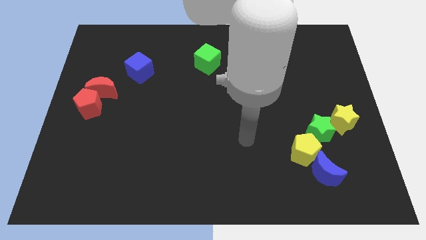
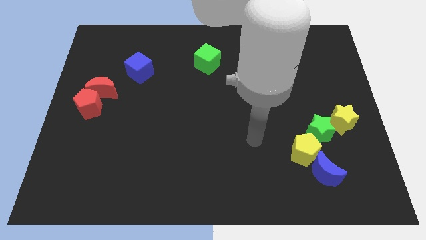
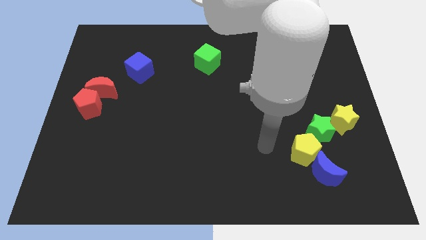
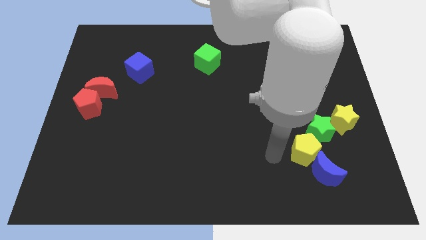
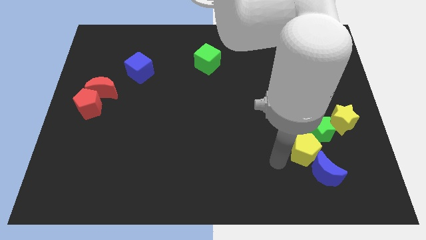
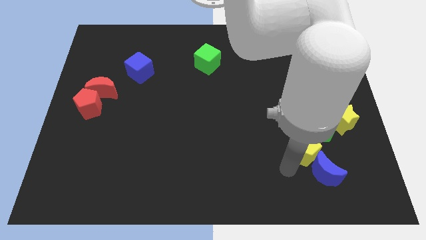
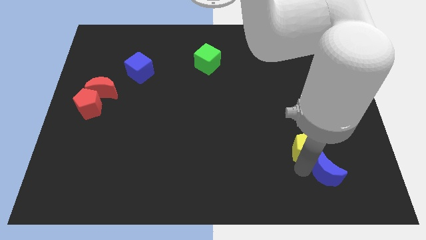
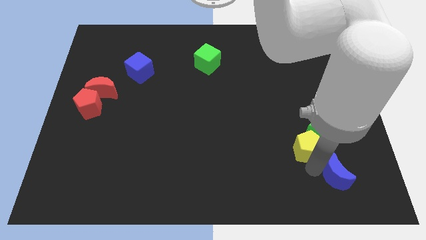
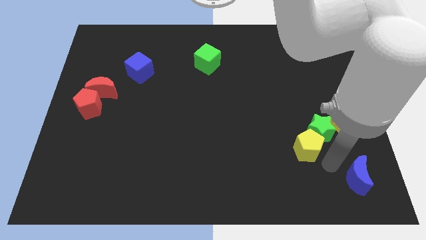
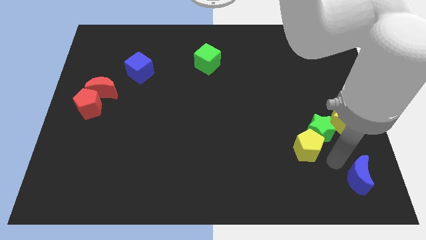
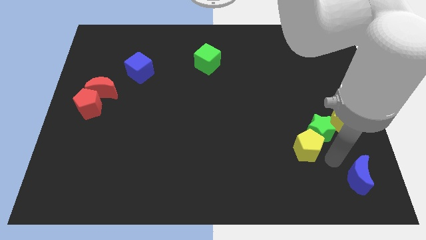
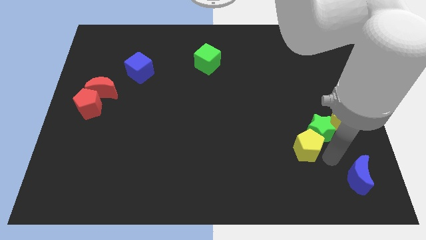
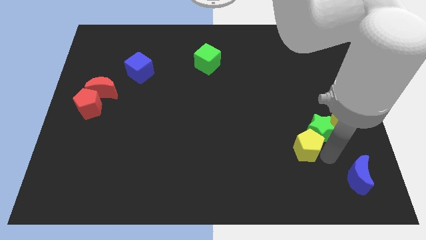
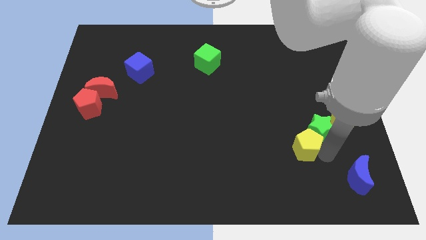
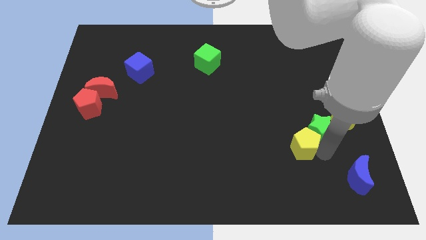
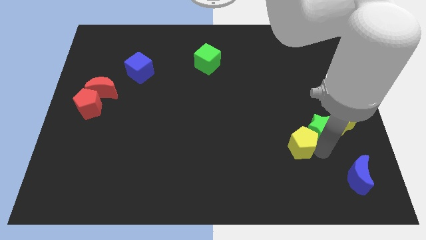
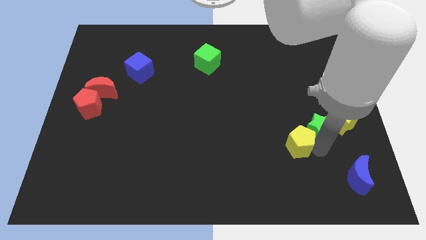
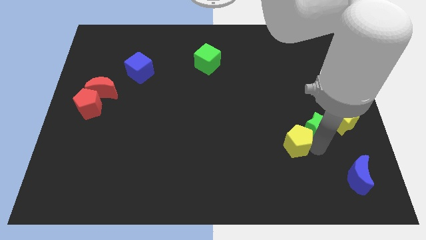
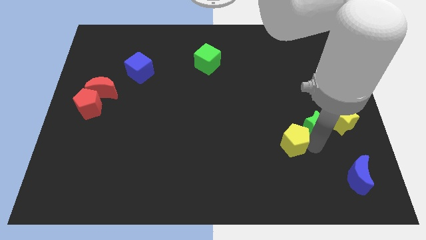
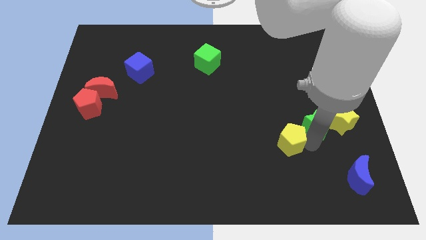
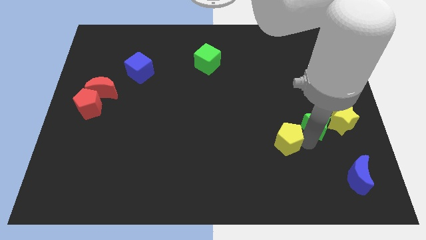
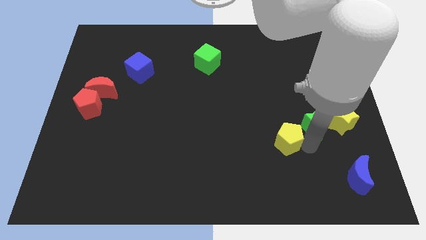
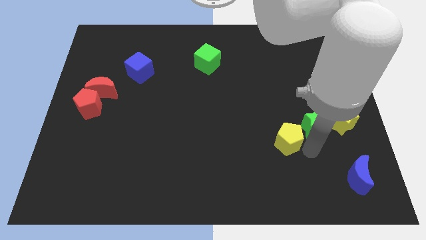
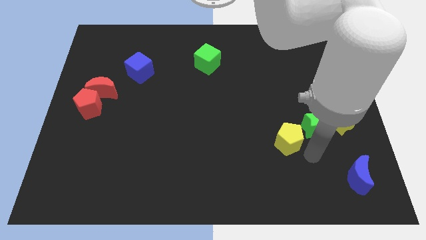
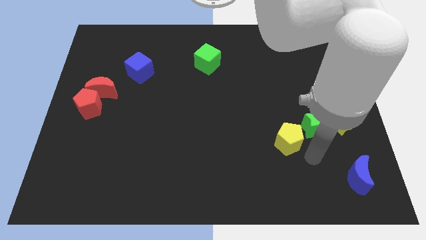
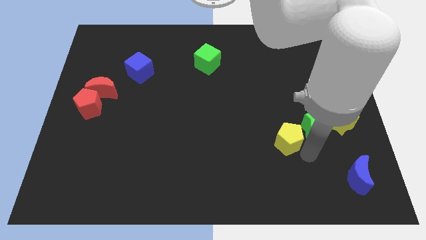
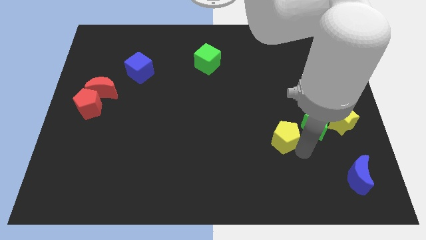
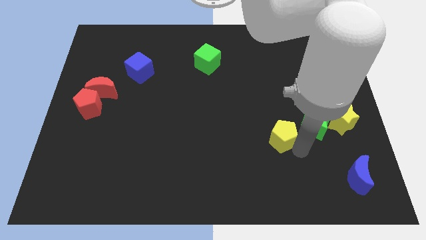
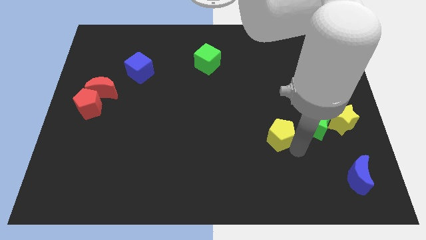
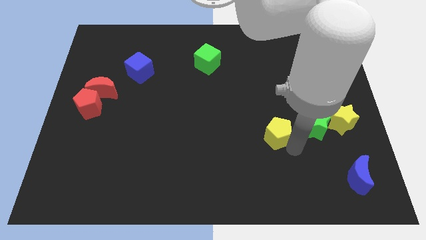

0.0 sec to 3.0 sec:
slide the yellow pentagon a little bit diagonally upwards and left

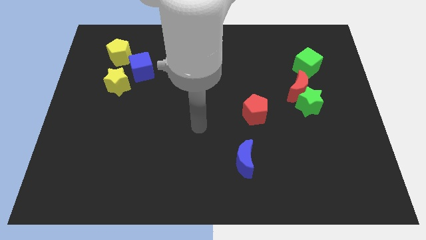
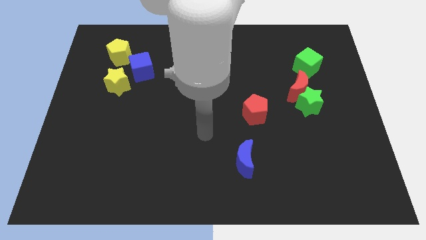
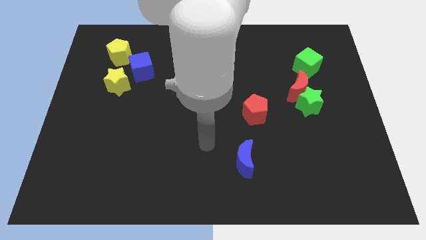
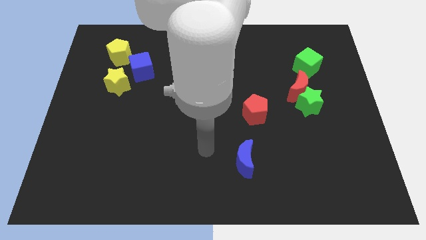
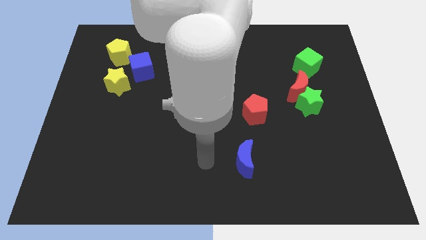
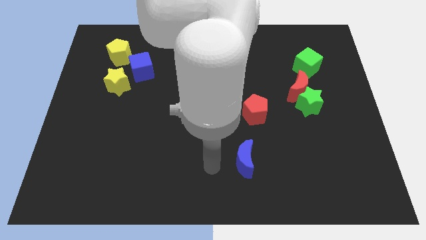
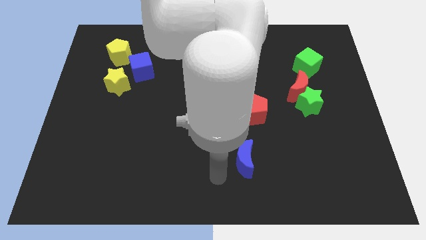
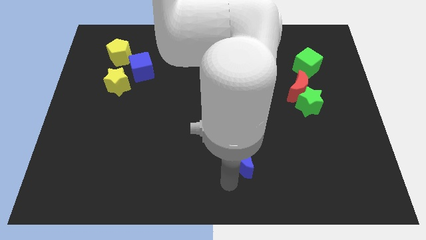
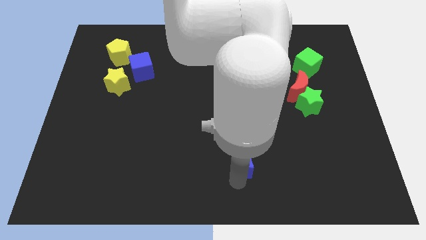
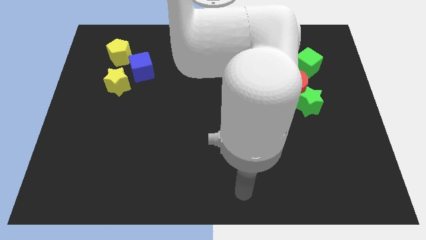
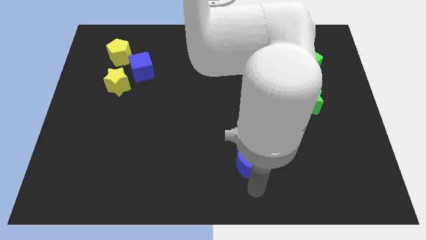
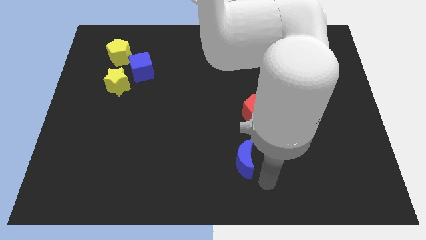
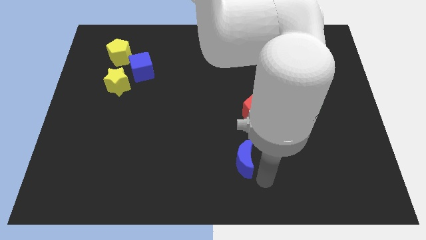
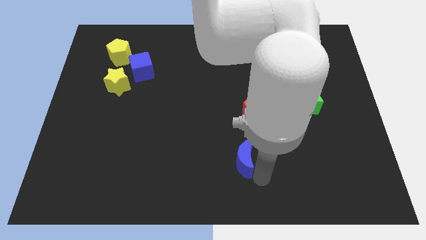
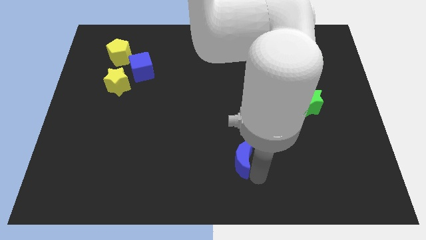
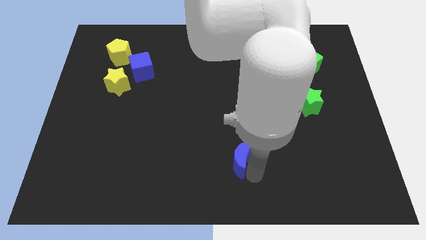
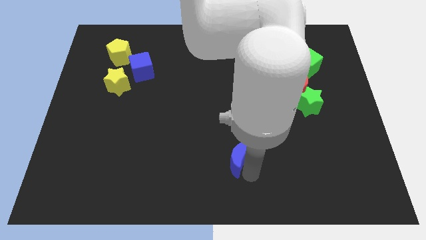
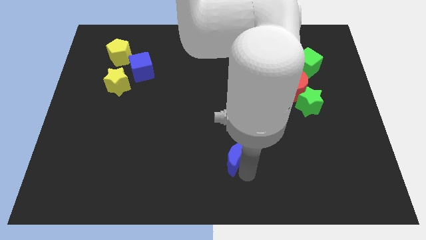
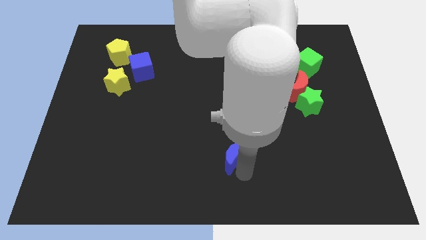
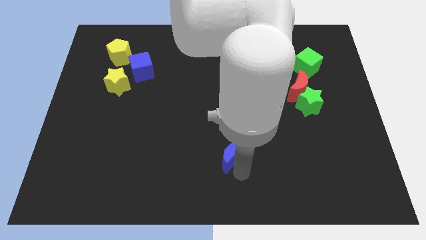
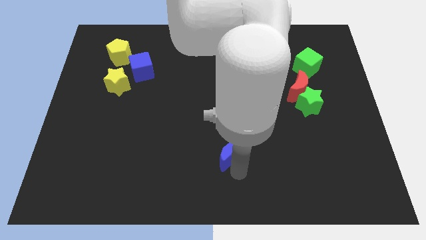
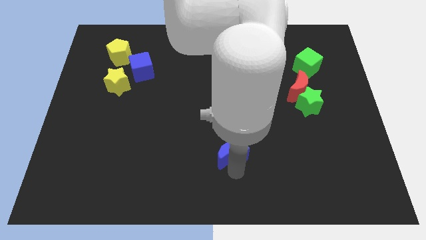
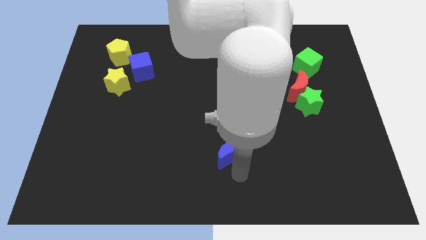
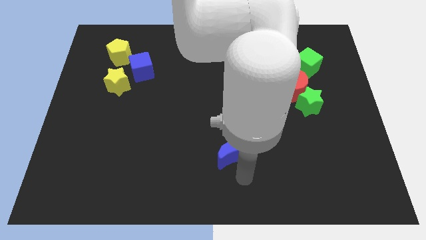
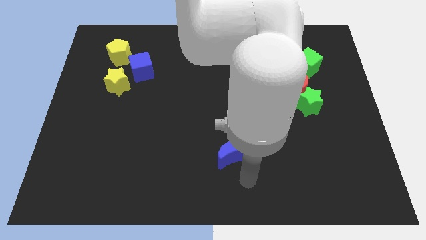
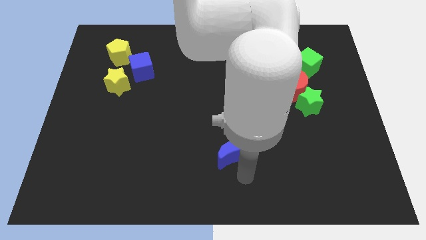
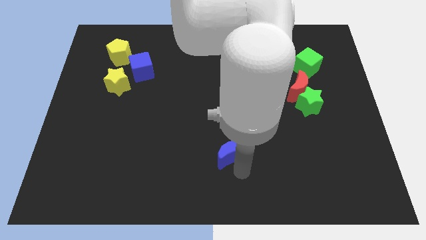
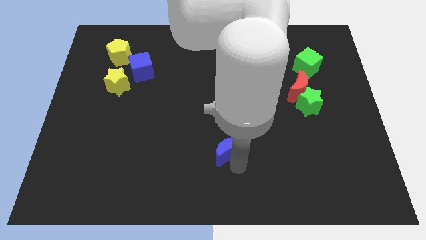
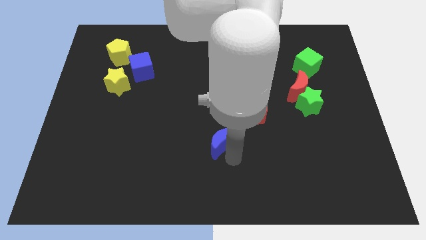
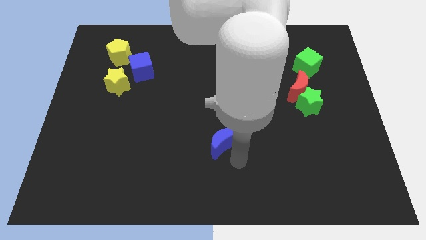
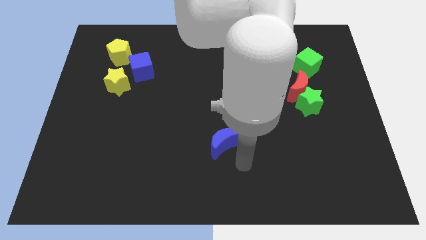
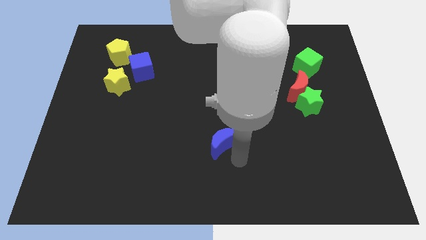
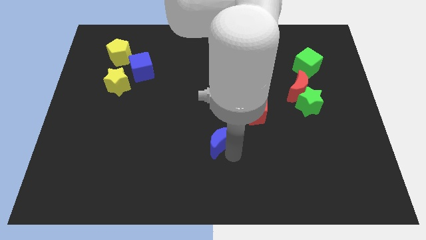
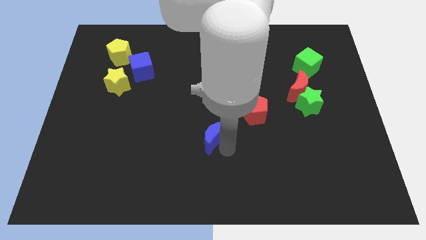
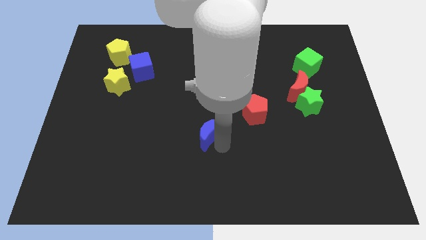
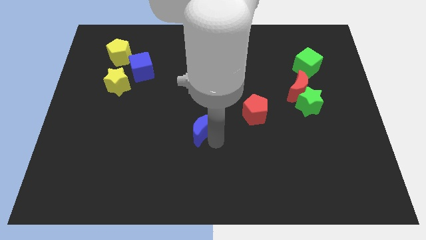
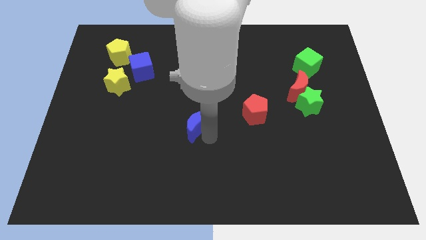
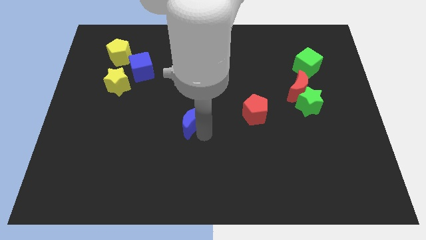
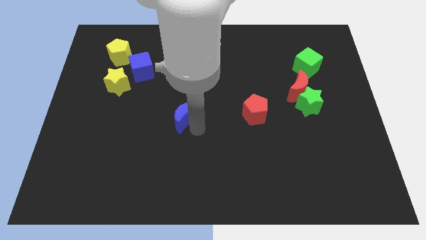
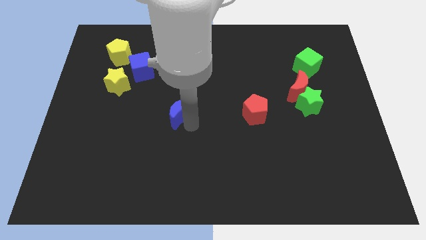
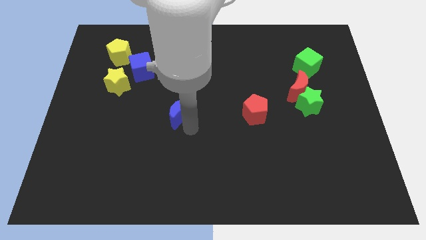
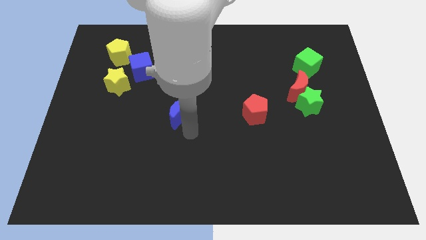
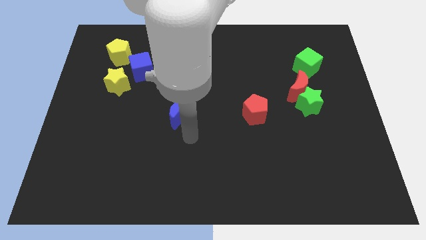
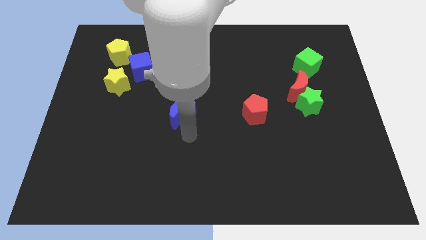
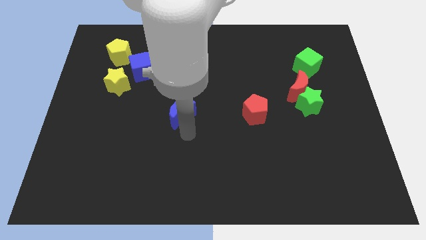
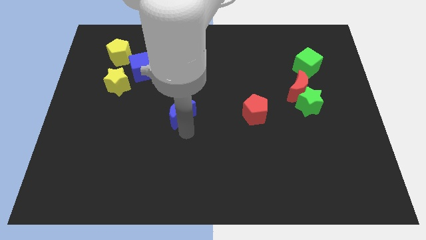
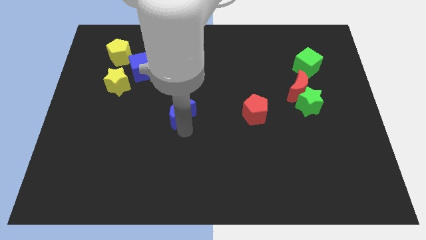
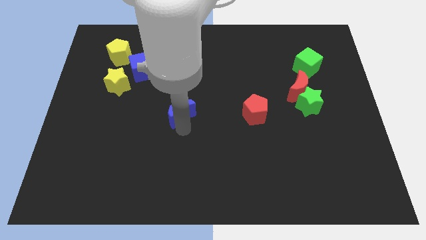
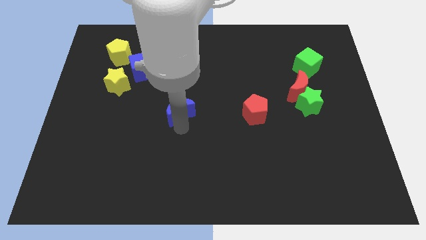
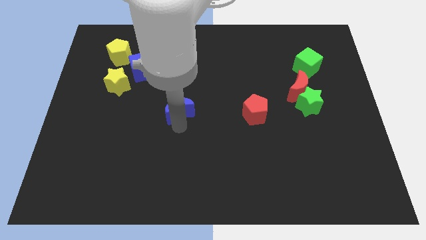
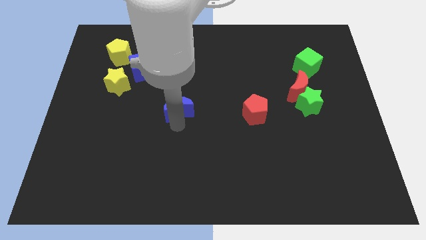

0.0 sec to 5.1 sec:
move the blue moon diagonally upwards and to the left

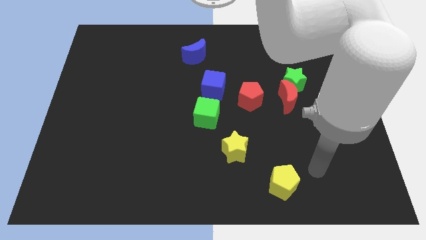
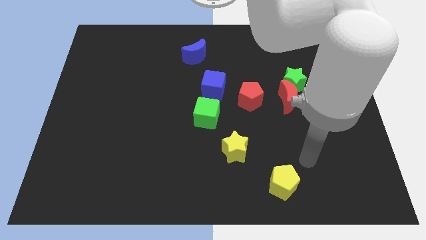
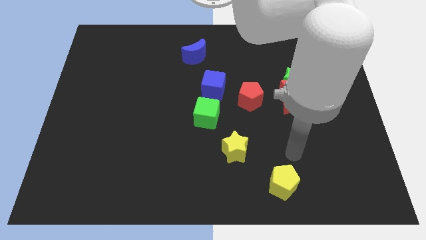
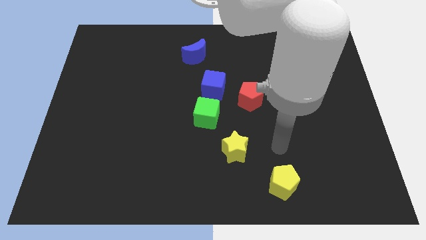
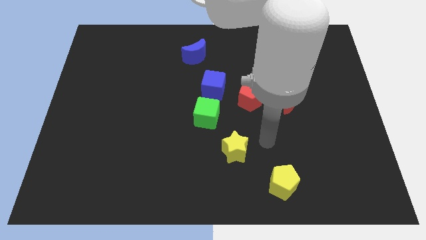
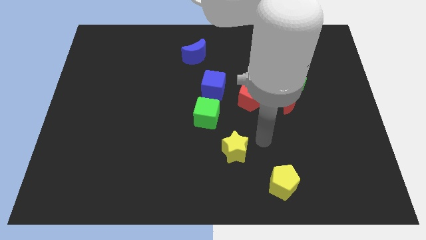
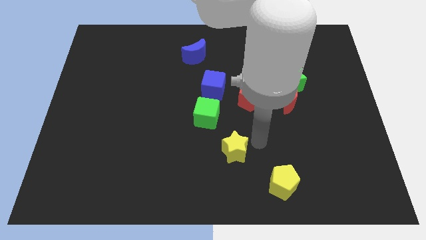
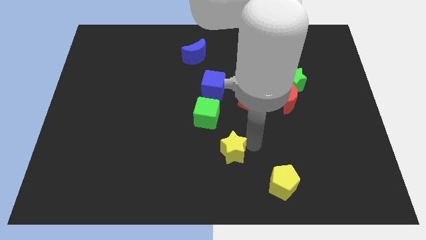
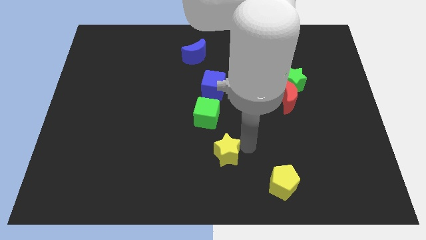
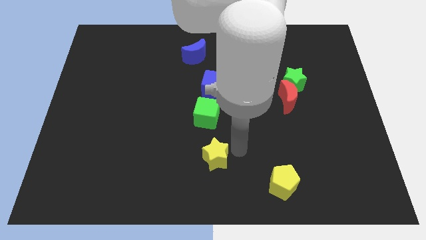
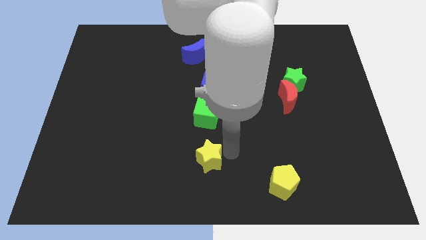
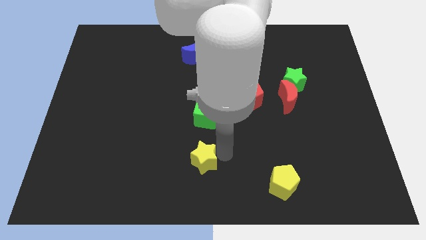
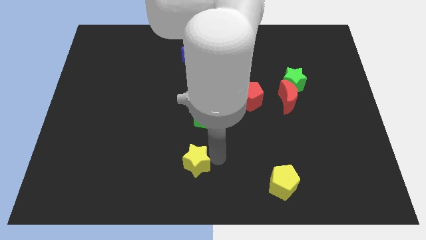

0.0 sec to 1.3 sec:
slightly move the yellow star left
